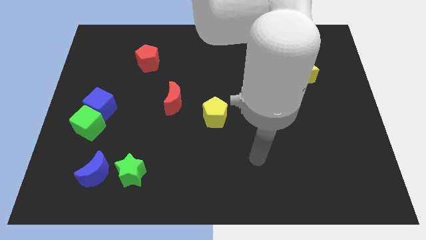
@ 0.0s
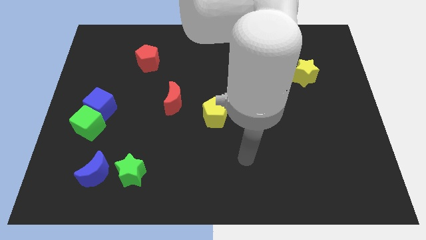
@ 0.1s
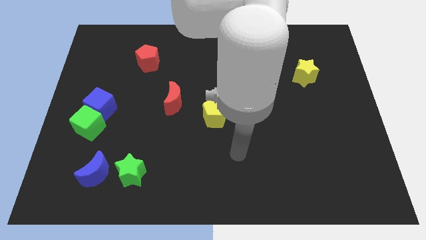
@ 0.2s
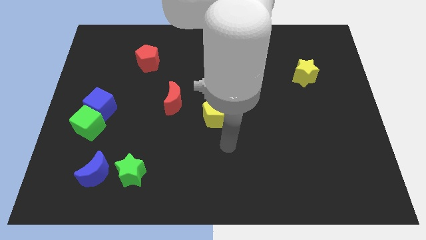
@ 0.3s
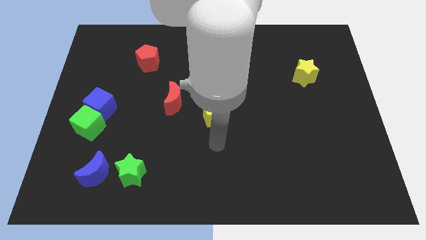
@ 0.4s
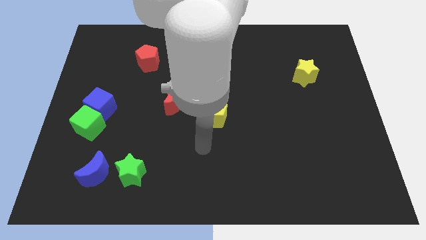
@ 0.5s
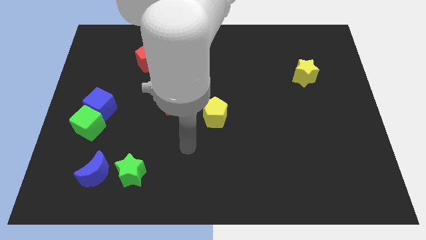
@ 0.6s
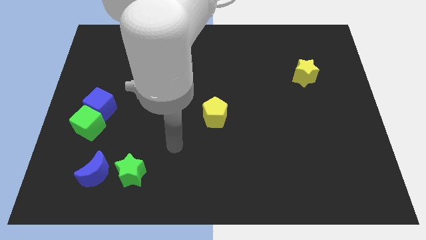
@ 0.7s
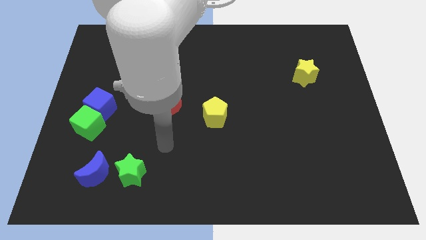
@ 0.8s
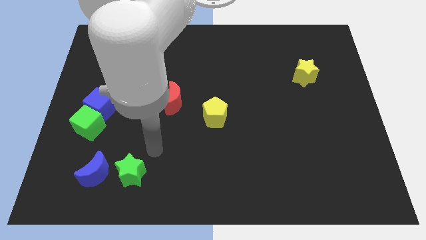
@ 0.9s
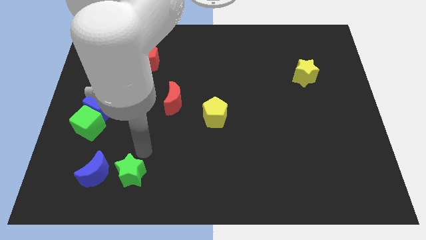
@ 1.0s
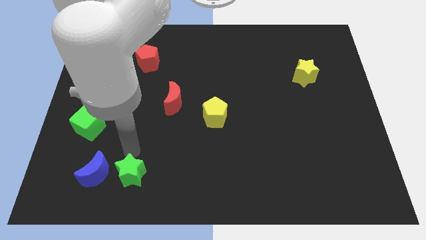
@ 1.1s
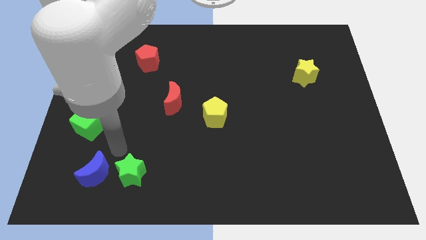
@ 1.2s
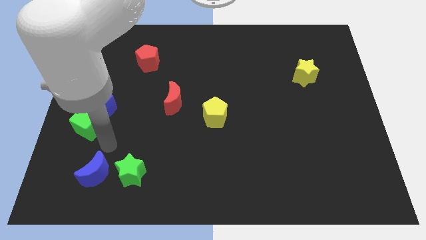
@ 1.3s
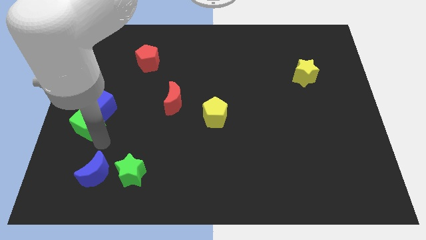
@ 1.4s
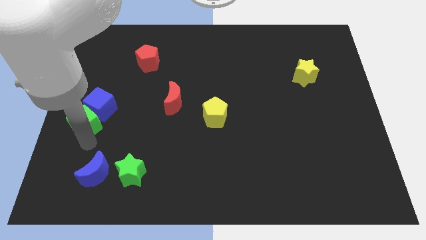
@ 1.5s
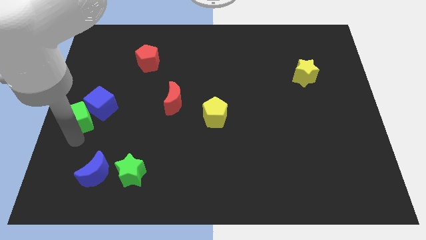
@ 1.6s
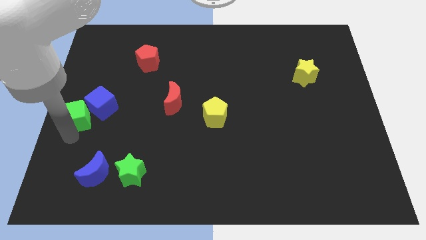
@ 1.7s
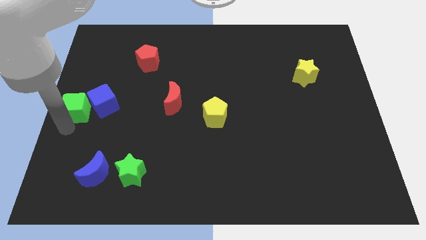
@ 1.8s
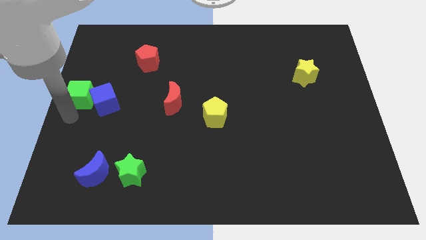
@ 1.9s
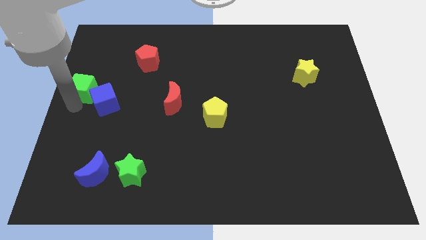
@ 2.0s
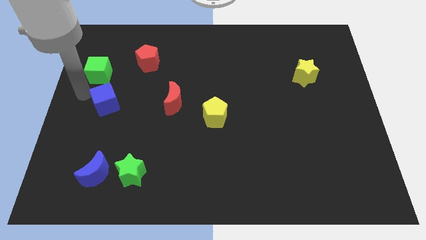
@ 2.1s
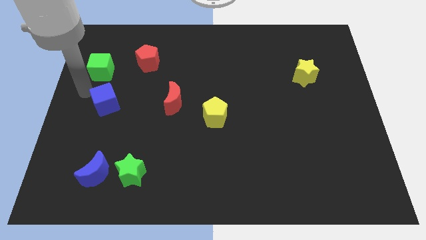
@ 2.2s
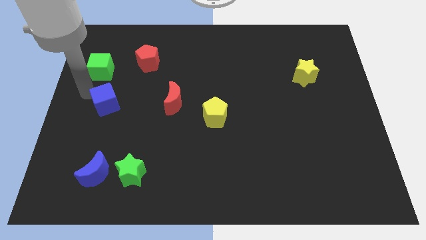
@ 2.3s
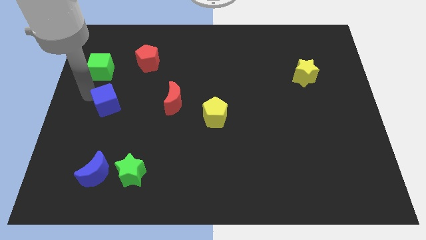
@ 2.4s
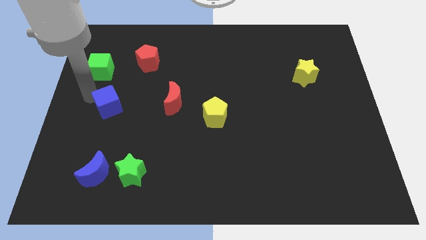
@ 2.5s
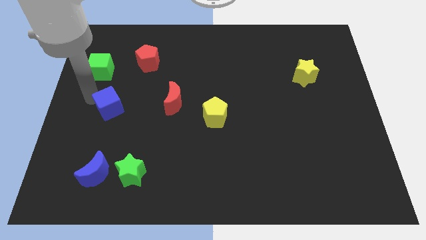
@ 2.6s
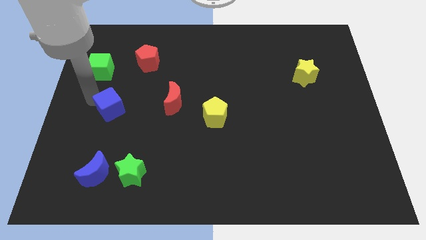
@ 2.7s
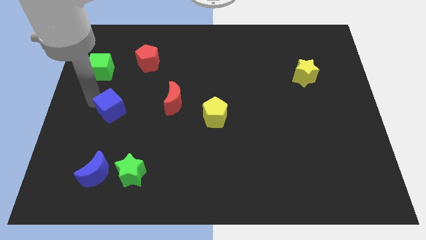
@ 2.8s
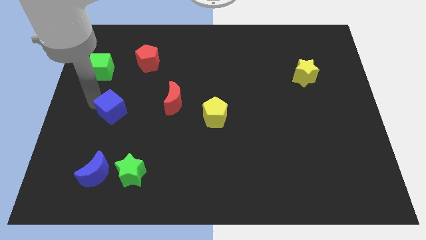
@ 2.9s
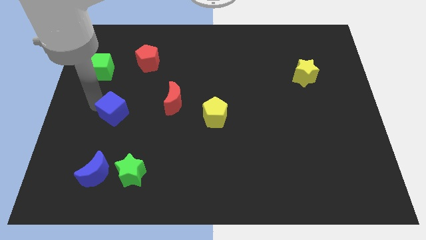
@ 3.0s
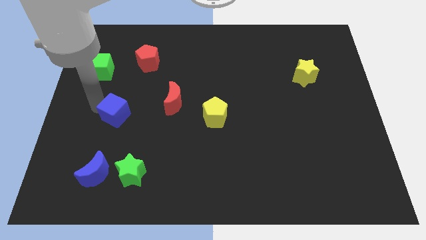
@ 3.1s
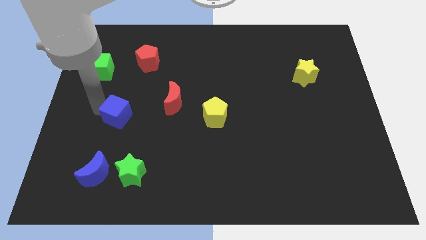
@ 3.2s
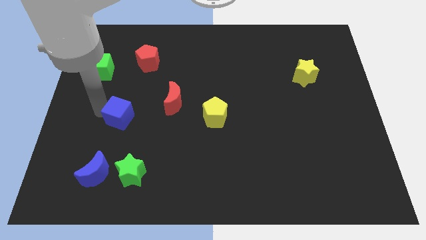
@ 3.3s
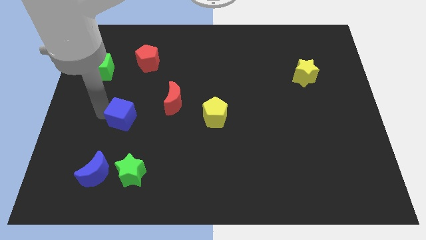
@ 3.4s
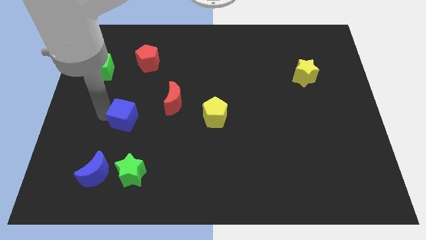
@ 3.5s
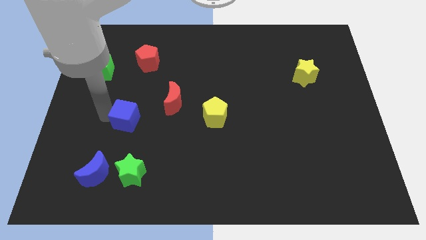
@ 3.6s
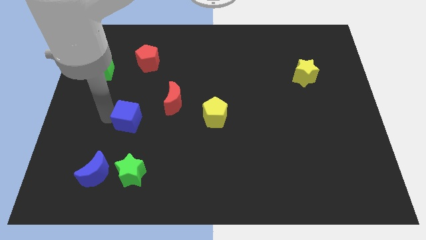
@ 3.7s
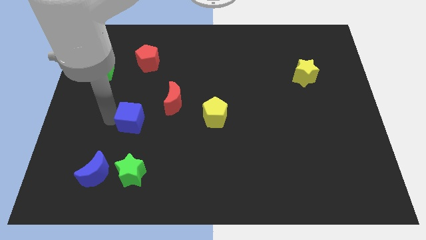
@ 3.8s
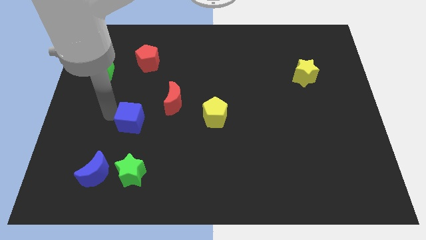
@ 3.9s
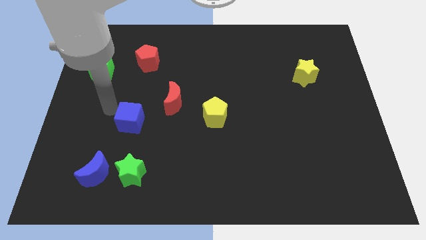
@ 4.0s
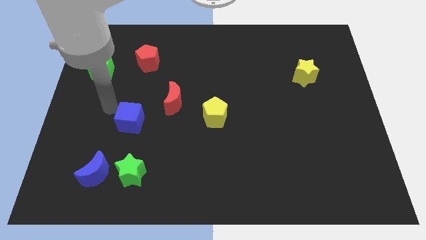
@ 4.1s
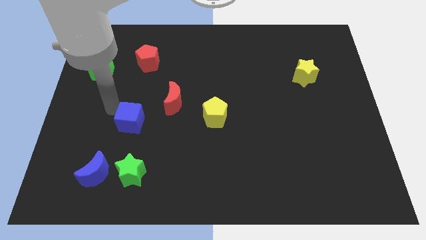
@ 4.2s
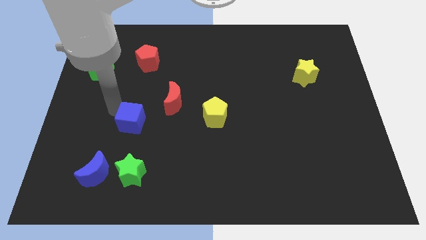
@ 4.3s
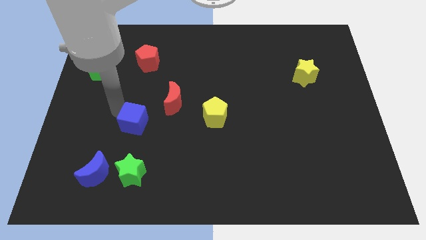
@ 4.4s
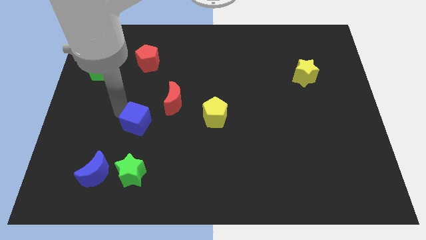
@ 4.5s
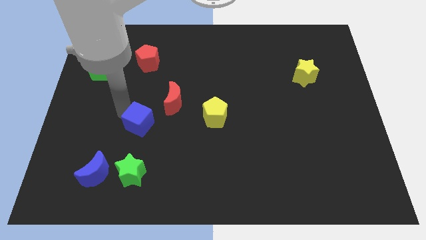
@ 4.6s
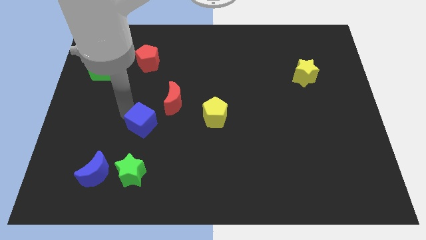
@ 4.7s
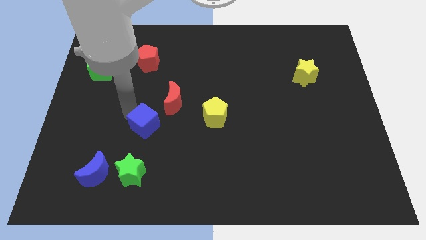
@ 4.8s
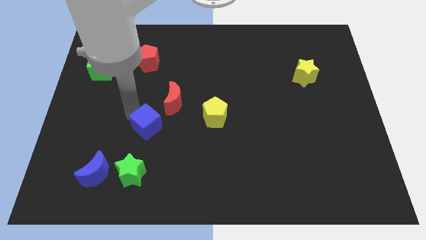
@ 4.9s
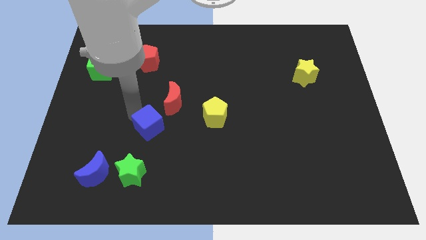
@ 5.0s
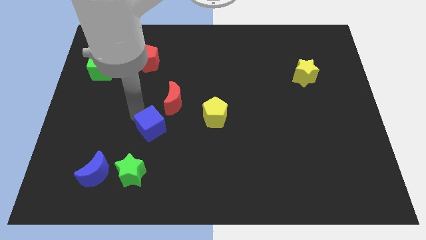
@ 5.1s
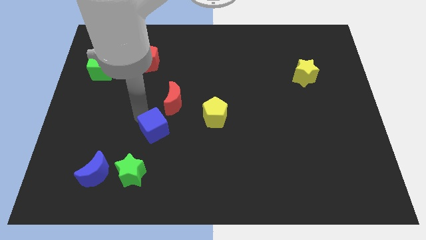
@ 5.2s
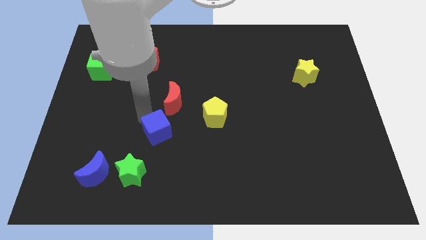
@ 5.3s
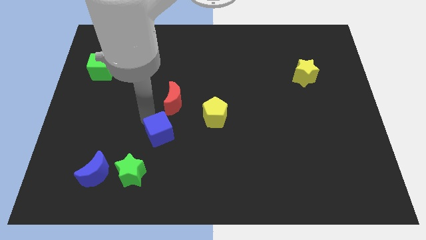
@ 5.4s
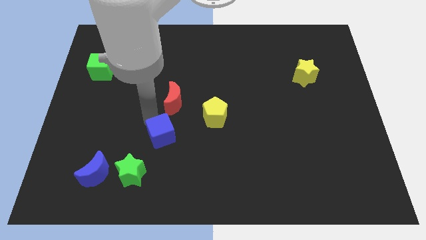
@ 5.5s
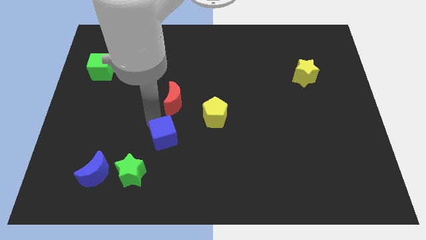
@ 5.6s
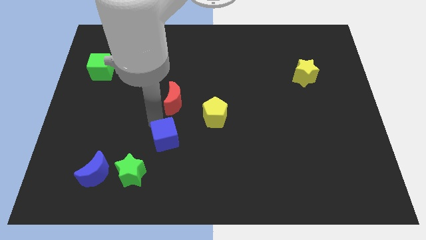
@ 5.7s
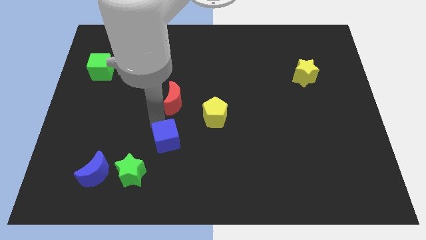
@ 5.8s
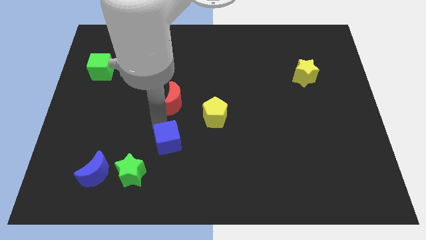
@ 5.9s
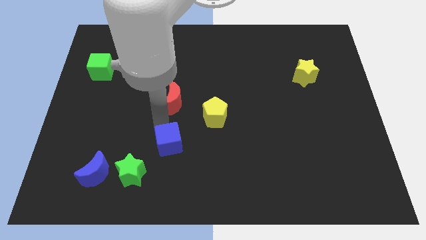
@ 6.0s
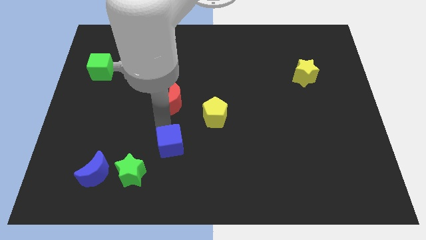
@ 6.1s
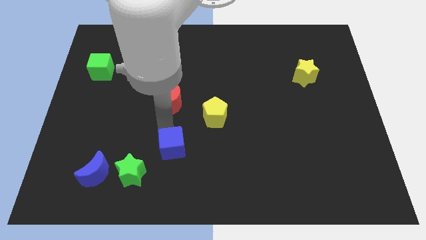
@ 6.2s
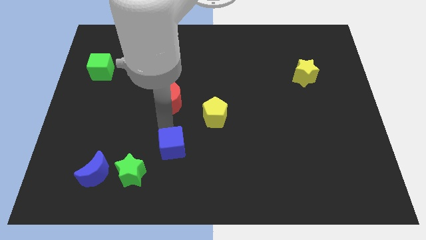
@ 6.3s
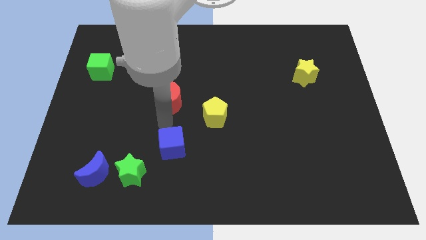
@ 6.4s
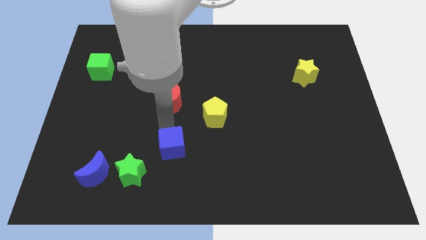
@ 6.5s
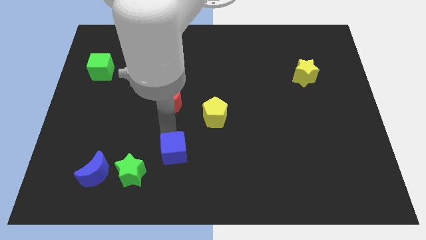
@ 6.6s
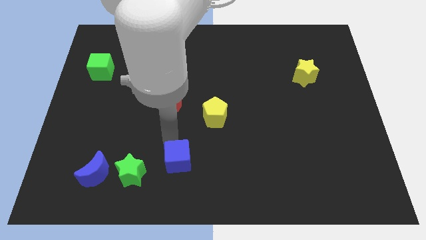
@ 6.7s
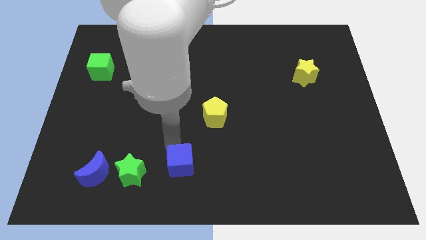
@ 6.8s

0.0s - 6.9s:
move the blue cube to the bottom

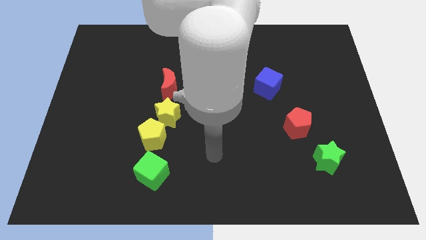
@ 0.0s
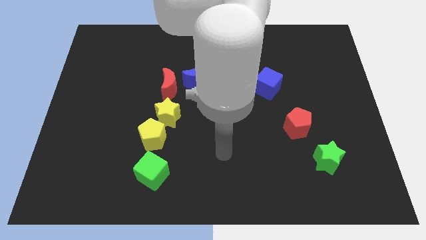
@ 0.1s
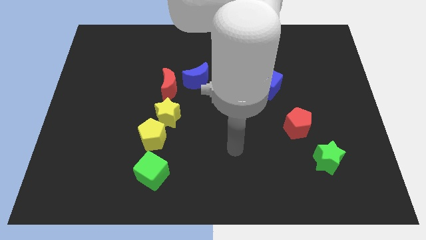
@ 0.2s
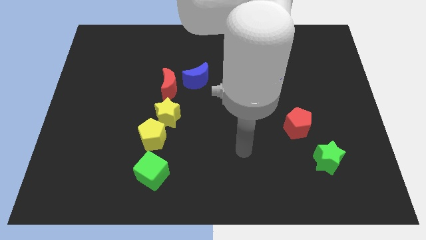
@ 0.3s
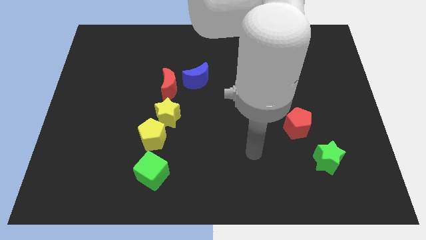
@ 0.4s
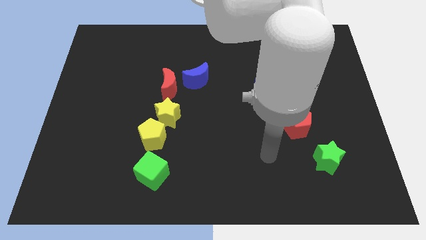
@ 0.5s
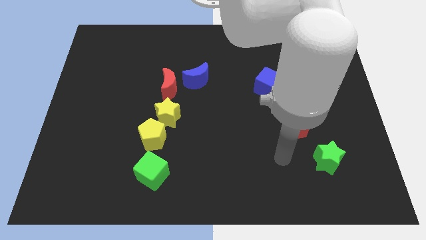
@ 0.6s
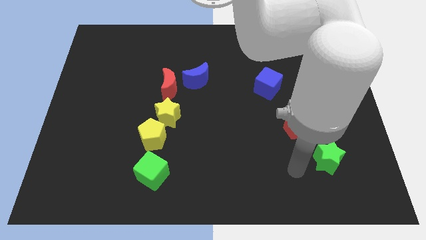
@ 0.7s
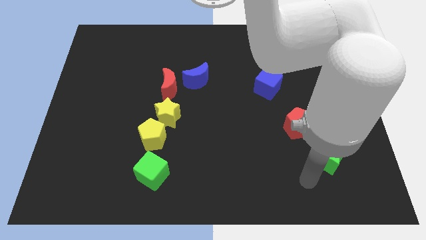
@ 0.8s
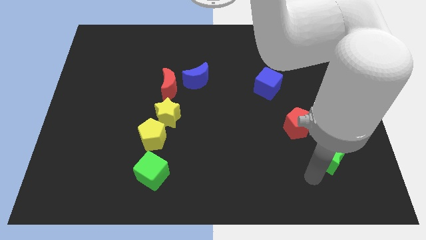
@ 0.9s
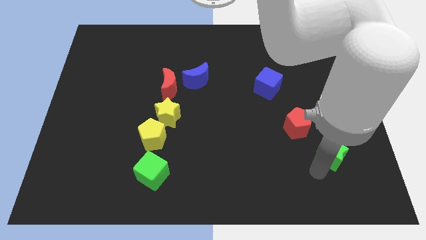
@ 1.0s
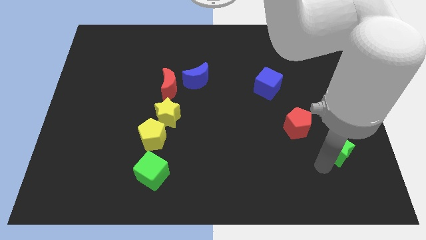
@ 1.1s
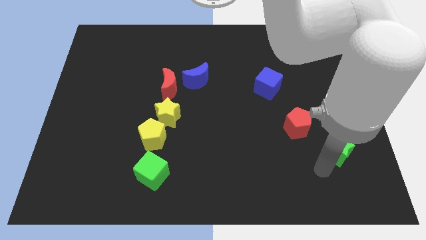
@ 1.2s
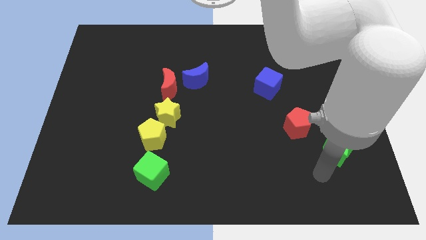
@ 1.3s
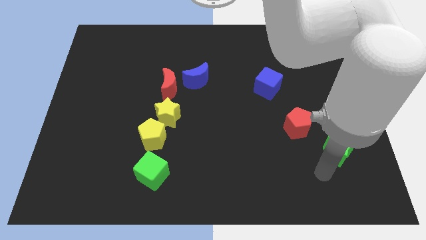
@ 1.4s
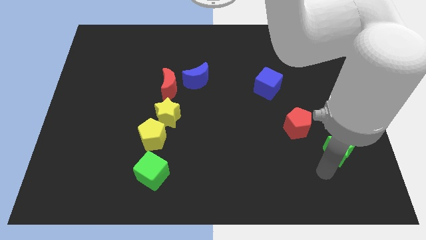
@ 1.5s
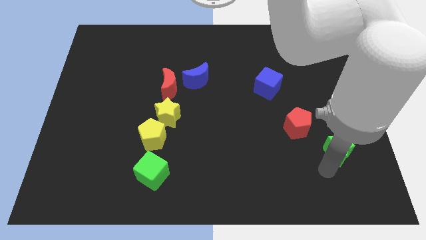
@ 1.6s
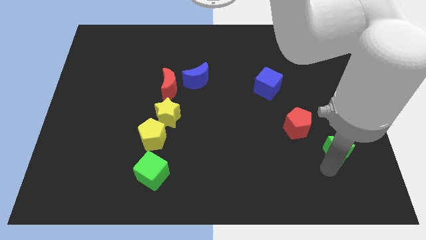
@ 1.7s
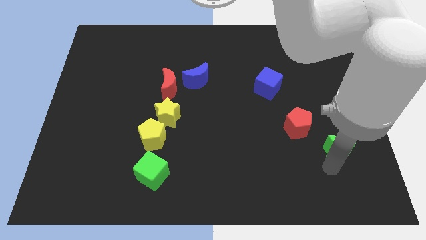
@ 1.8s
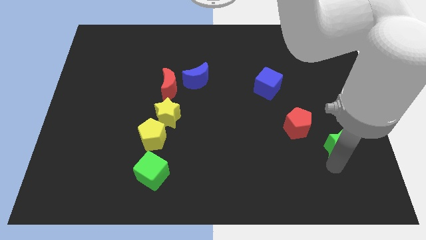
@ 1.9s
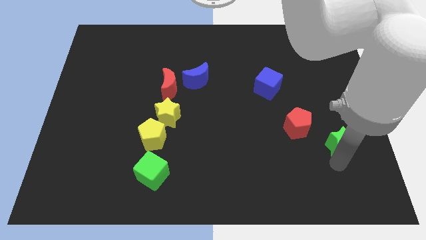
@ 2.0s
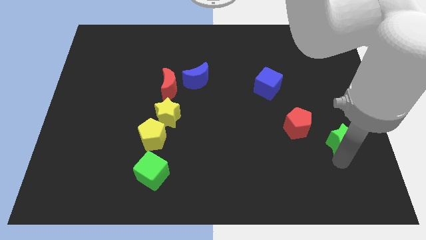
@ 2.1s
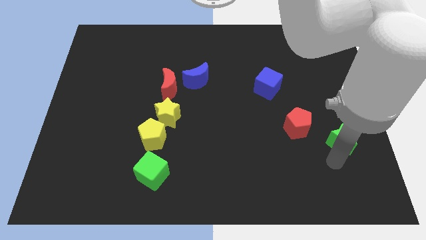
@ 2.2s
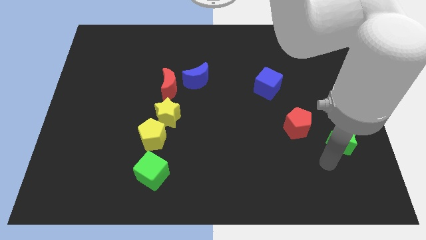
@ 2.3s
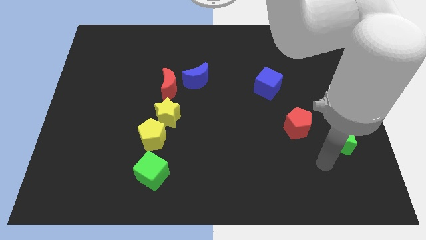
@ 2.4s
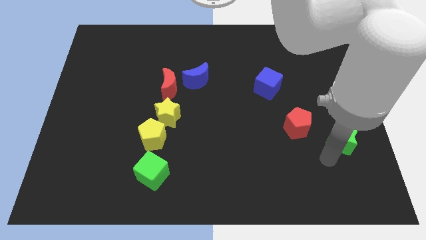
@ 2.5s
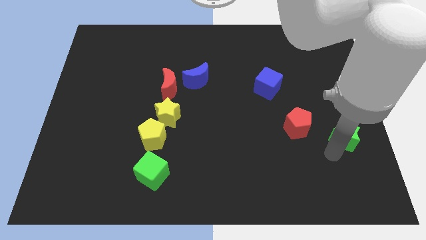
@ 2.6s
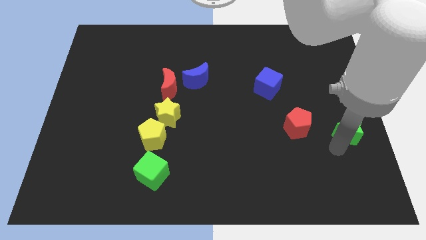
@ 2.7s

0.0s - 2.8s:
put the green star to the right side of the board
